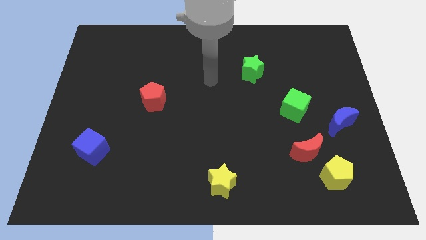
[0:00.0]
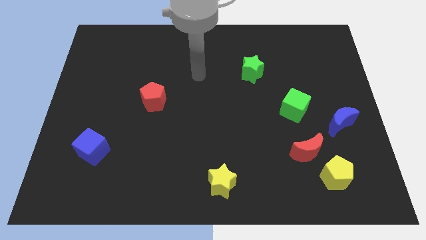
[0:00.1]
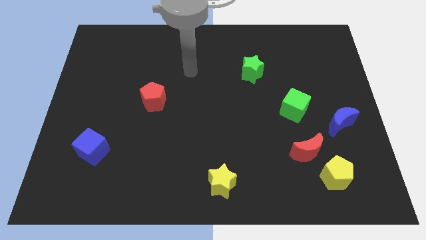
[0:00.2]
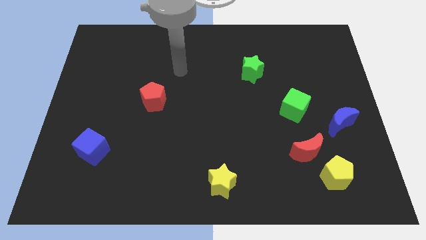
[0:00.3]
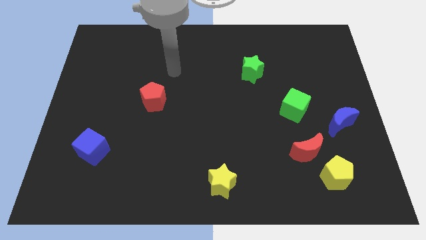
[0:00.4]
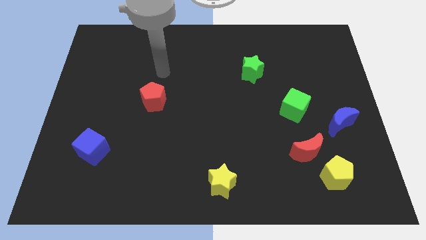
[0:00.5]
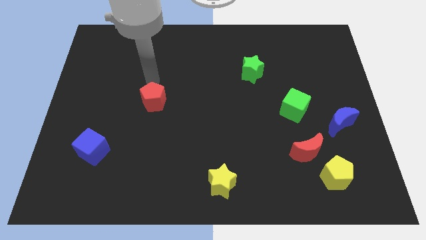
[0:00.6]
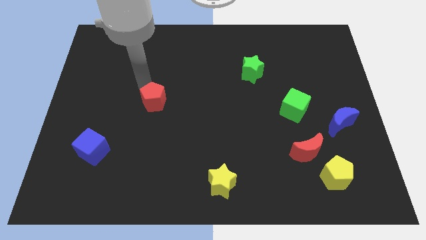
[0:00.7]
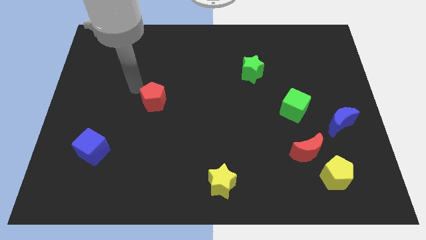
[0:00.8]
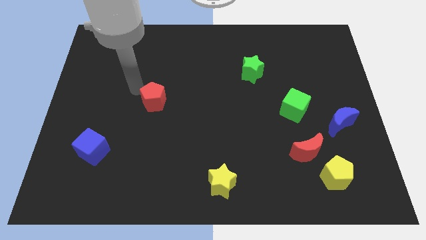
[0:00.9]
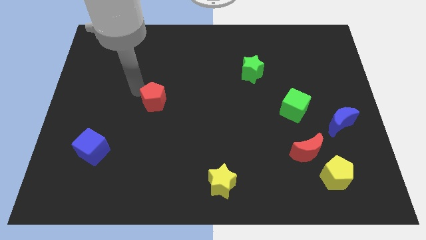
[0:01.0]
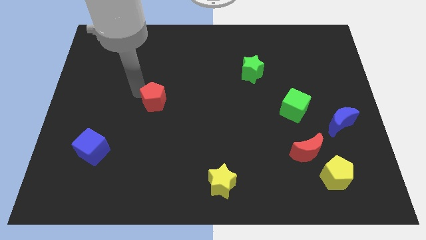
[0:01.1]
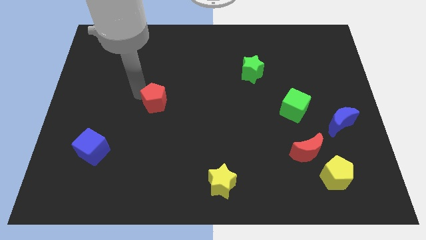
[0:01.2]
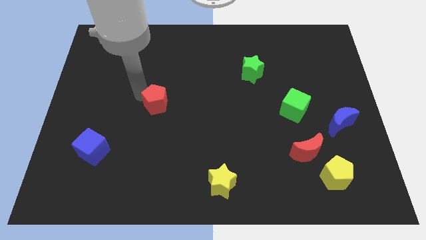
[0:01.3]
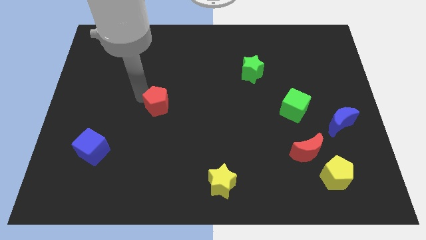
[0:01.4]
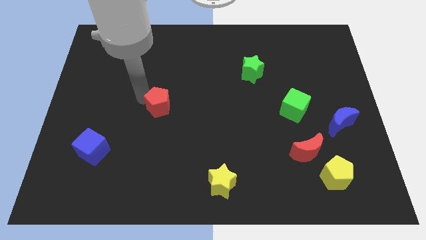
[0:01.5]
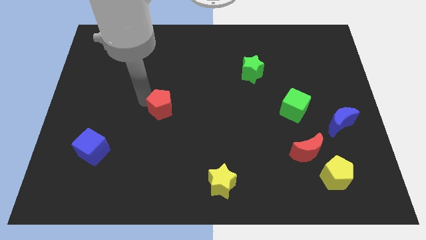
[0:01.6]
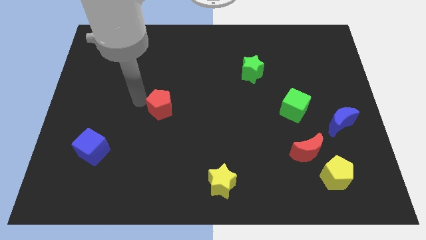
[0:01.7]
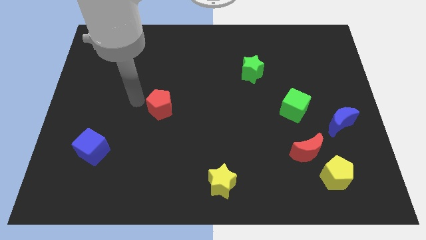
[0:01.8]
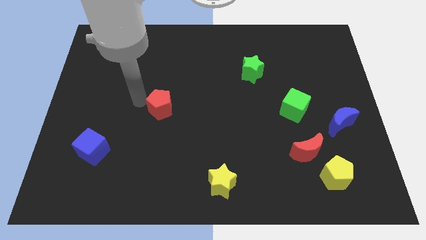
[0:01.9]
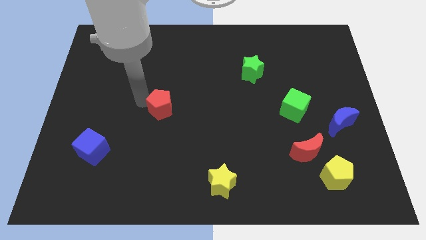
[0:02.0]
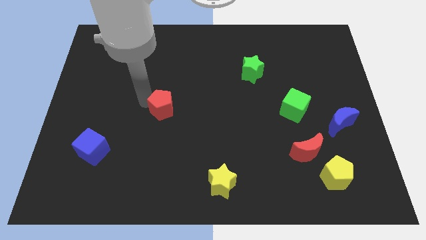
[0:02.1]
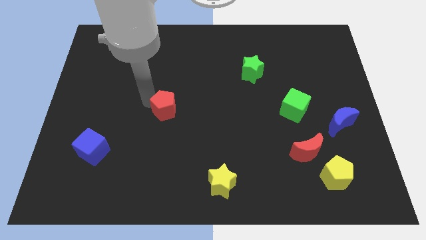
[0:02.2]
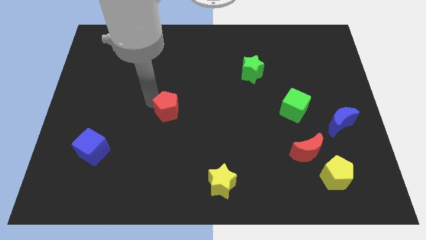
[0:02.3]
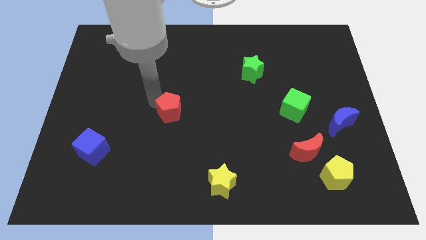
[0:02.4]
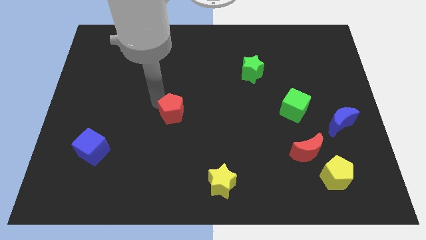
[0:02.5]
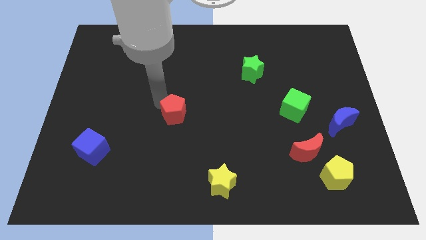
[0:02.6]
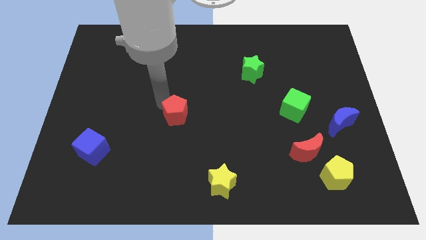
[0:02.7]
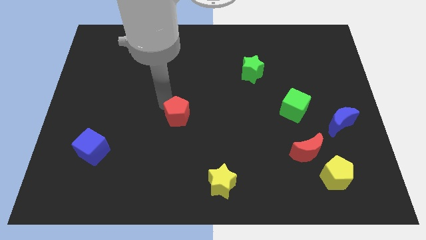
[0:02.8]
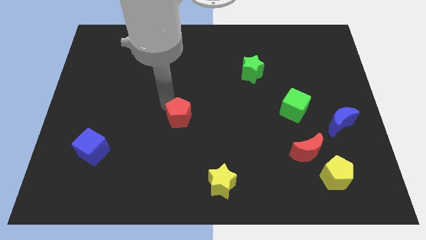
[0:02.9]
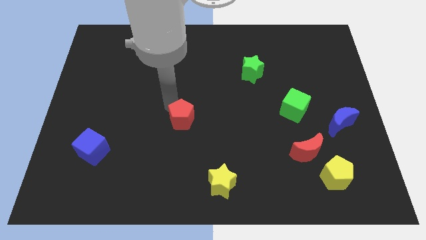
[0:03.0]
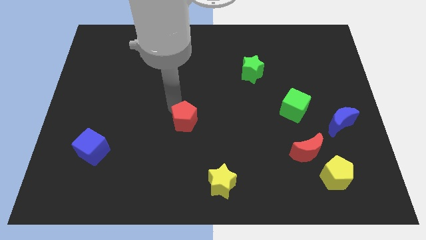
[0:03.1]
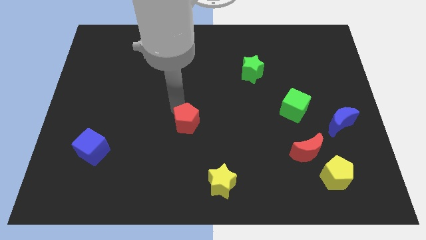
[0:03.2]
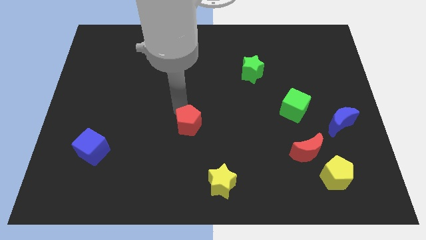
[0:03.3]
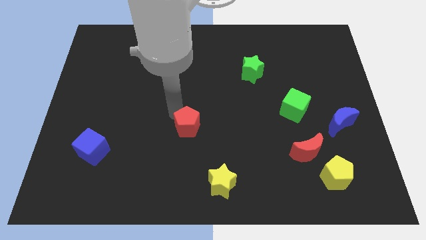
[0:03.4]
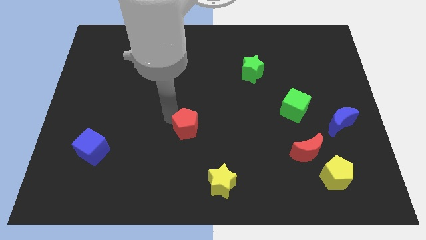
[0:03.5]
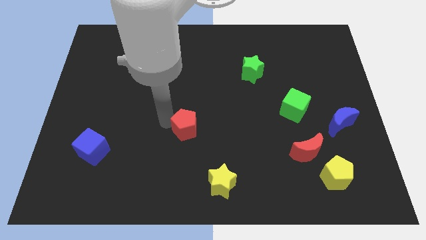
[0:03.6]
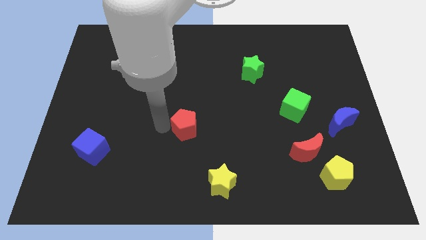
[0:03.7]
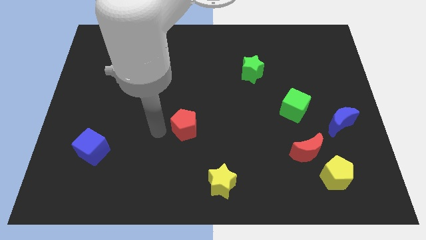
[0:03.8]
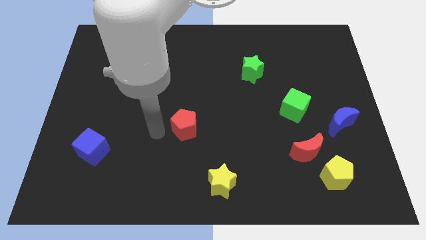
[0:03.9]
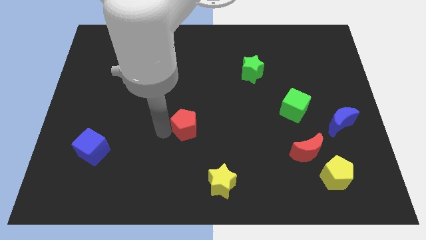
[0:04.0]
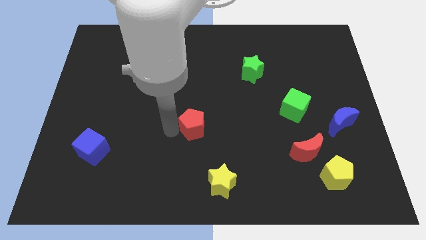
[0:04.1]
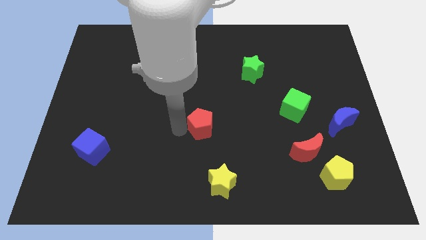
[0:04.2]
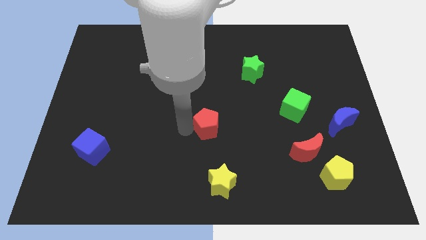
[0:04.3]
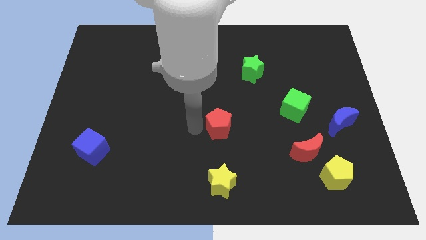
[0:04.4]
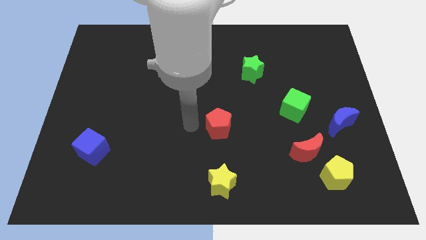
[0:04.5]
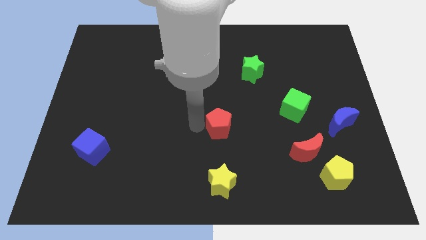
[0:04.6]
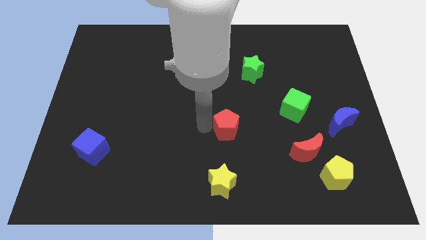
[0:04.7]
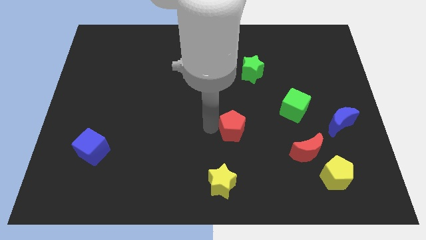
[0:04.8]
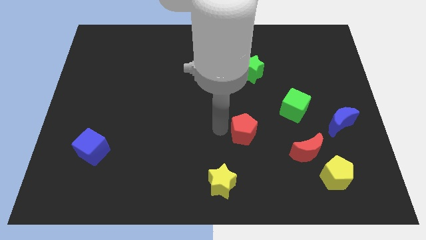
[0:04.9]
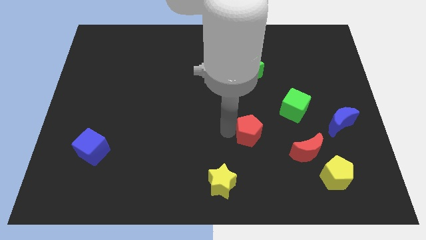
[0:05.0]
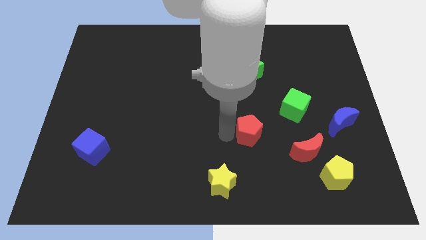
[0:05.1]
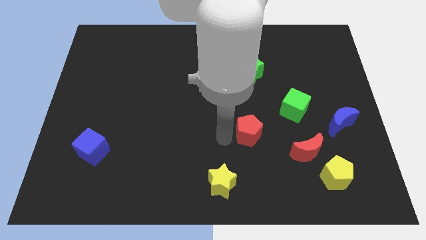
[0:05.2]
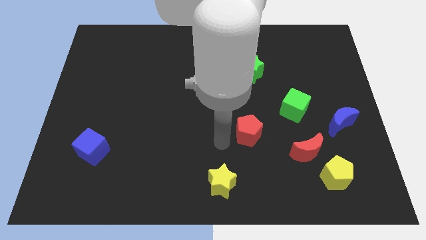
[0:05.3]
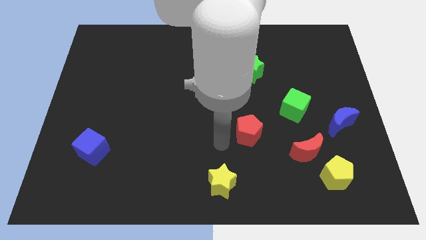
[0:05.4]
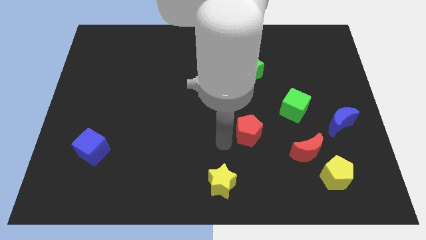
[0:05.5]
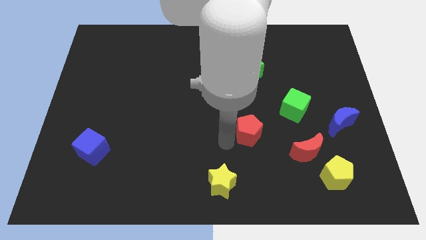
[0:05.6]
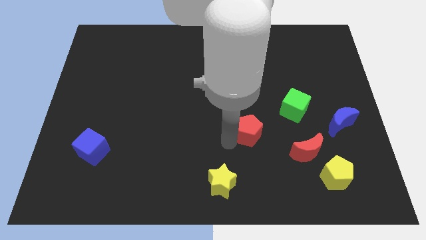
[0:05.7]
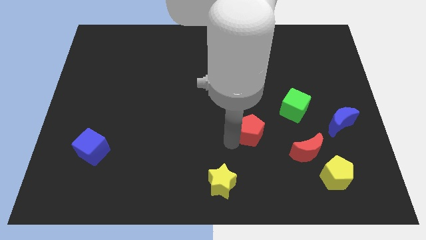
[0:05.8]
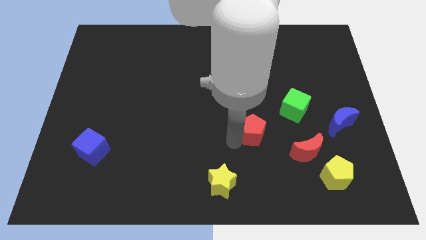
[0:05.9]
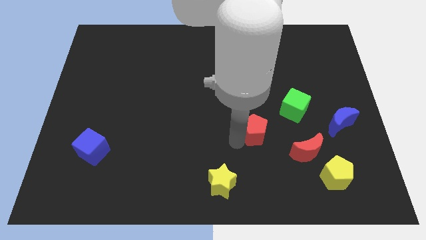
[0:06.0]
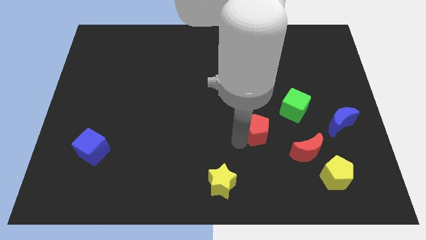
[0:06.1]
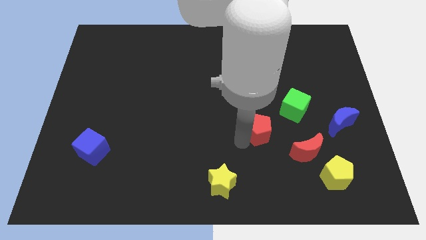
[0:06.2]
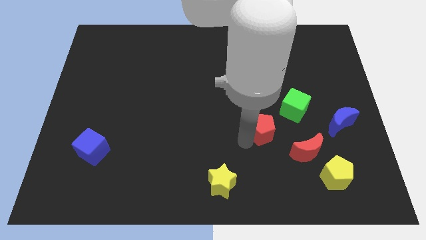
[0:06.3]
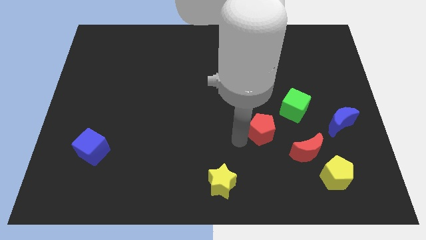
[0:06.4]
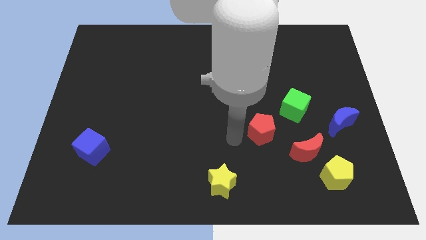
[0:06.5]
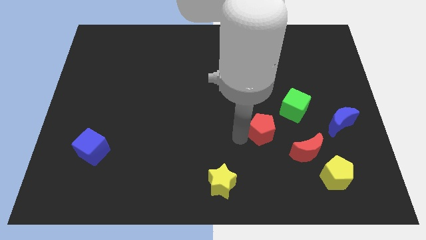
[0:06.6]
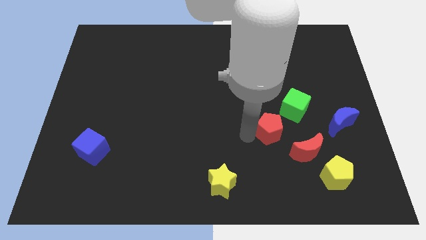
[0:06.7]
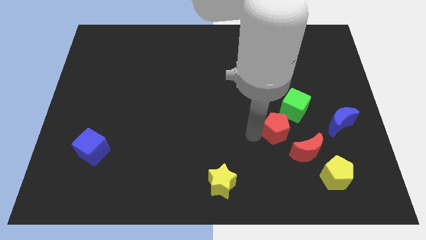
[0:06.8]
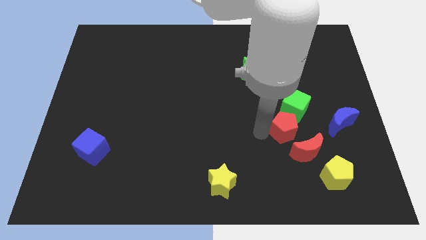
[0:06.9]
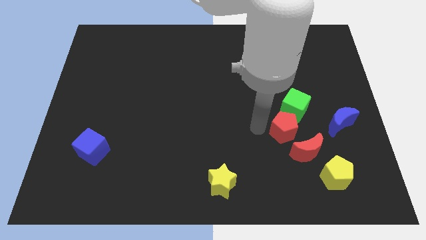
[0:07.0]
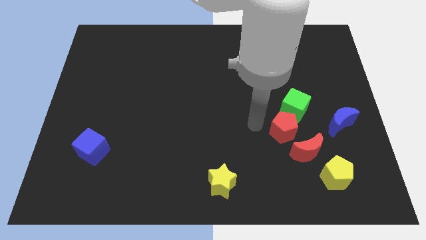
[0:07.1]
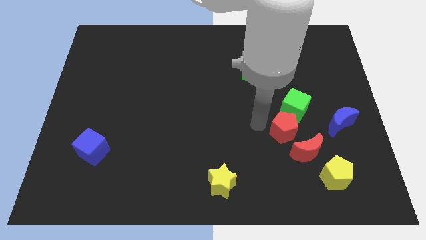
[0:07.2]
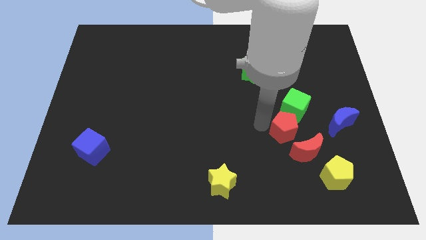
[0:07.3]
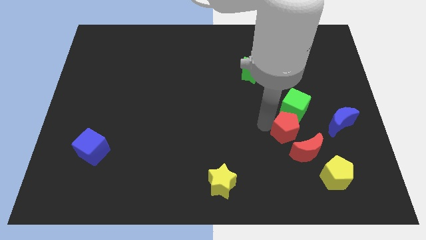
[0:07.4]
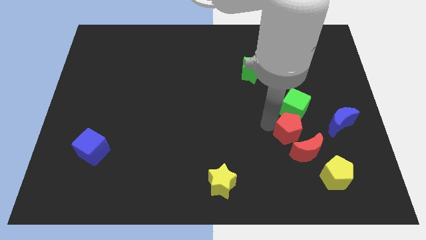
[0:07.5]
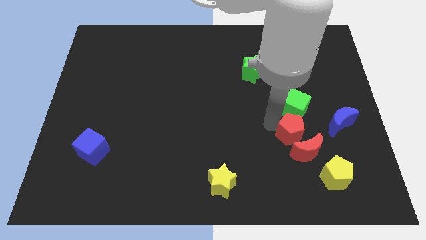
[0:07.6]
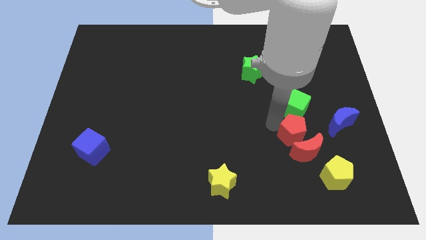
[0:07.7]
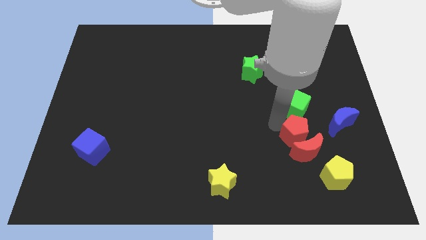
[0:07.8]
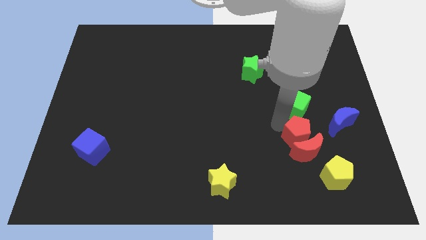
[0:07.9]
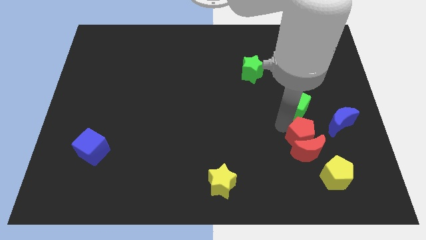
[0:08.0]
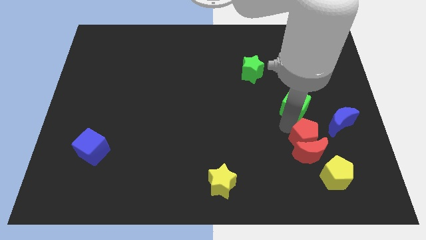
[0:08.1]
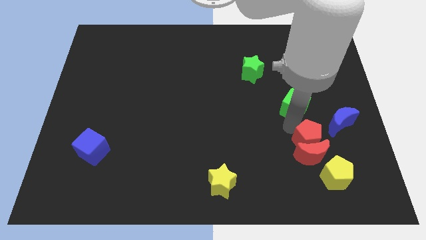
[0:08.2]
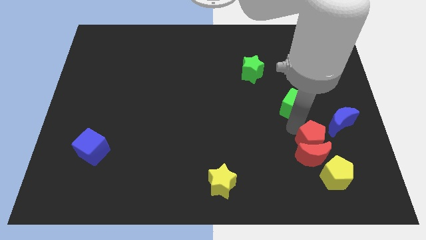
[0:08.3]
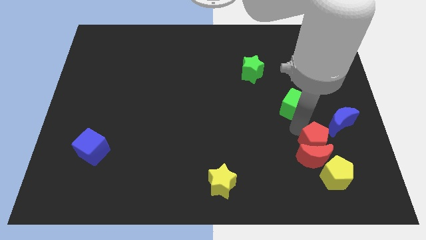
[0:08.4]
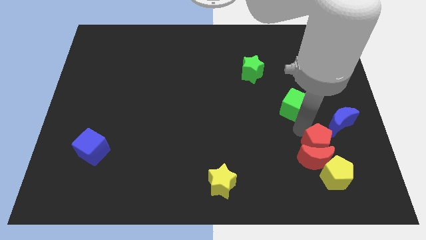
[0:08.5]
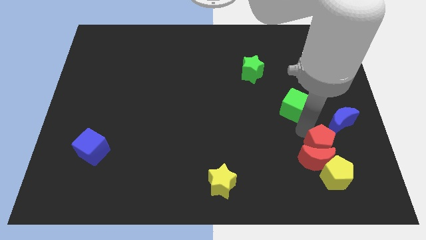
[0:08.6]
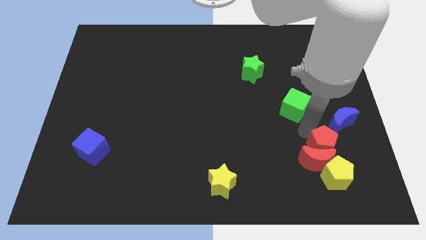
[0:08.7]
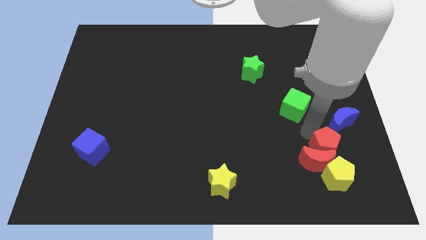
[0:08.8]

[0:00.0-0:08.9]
push the red pentagon to the bottom side of the blue moon
